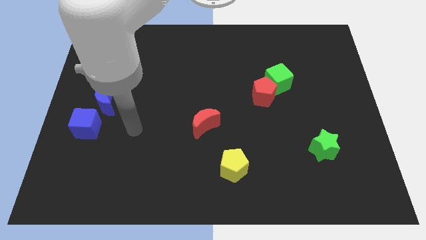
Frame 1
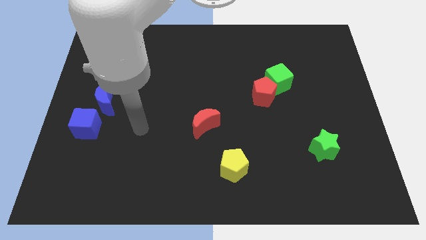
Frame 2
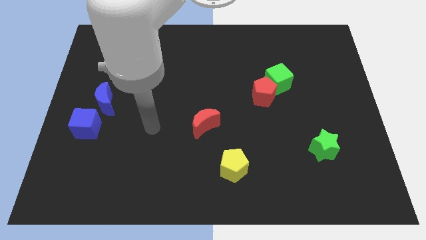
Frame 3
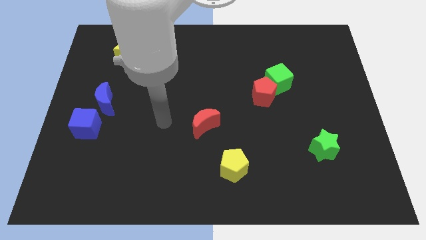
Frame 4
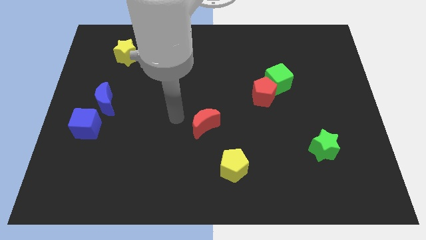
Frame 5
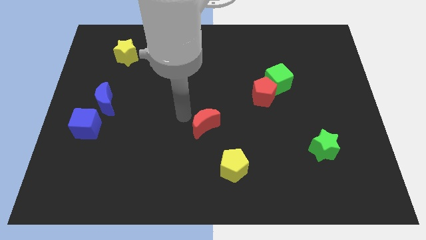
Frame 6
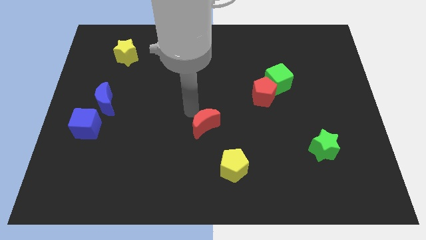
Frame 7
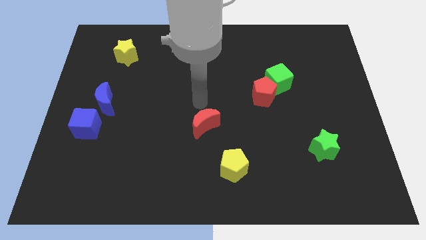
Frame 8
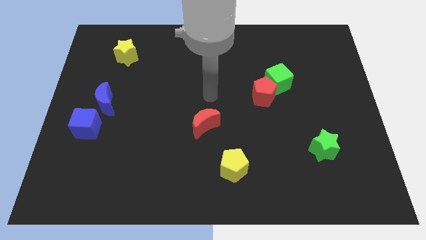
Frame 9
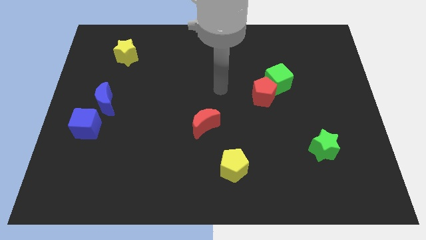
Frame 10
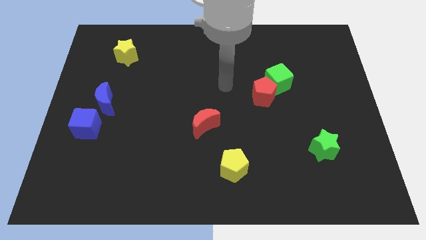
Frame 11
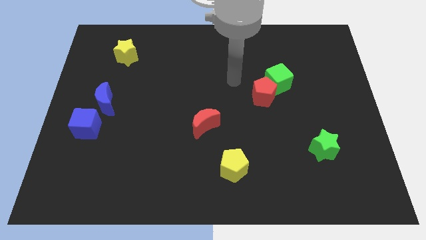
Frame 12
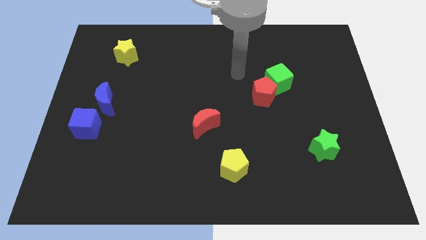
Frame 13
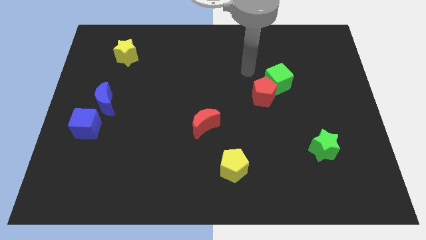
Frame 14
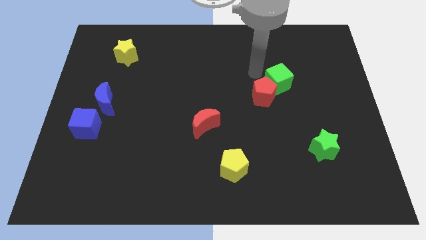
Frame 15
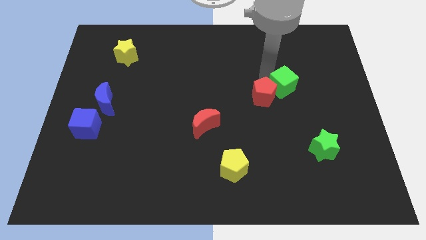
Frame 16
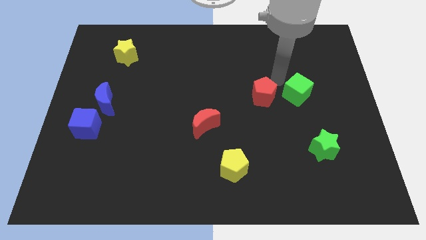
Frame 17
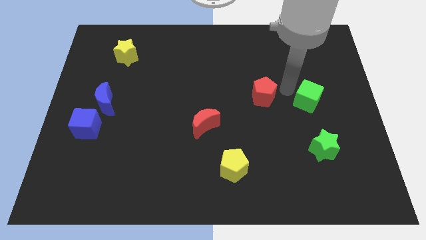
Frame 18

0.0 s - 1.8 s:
separate the red pentagon from the green cube

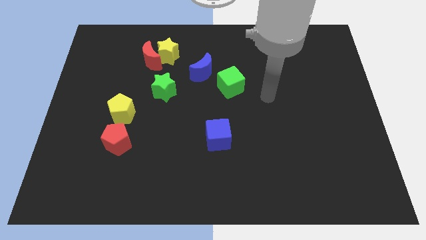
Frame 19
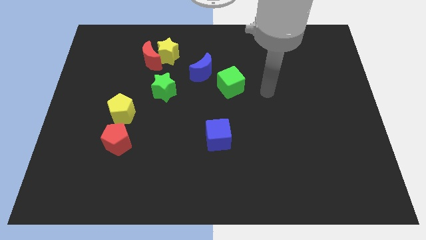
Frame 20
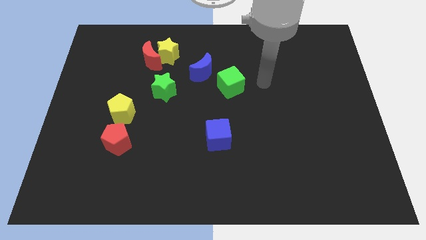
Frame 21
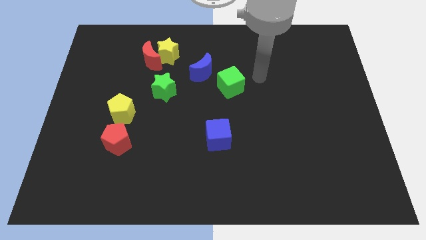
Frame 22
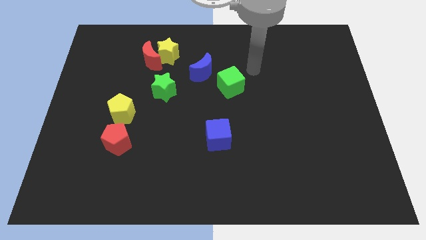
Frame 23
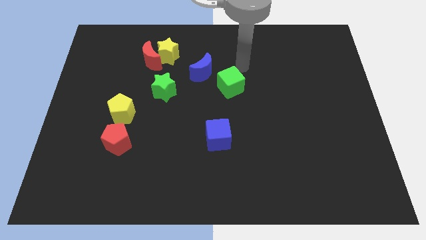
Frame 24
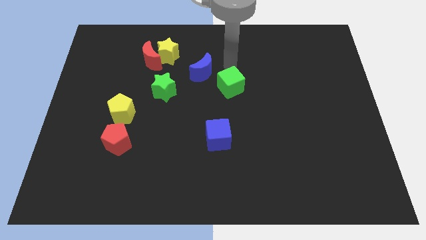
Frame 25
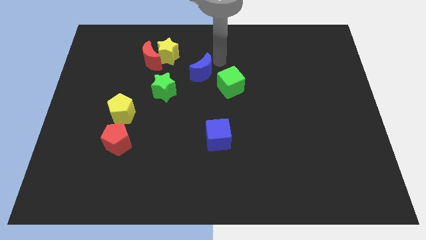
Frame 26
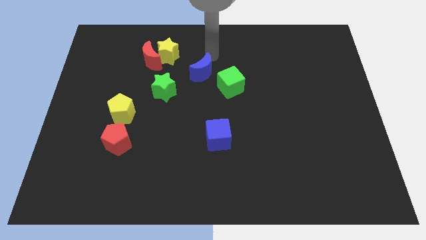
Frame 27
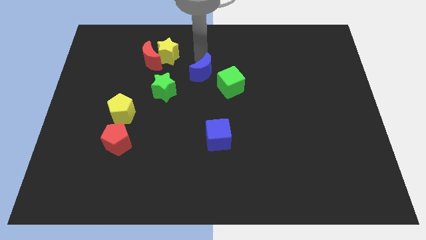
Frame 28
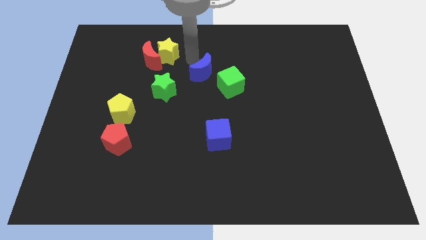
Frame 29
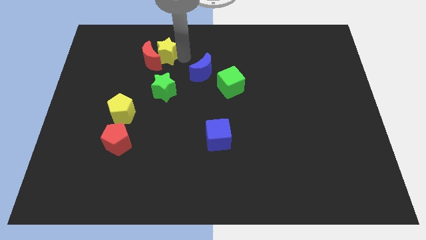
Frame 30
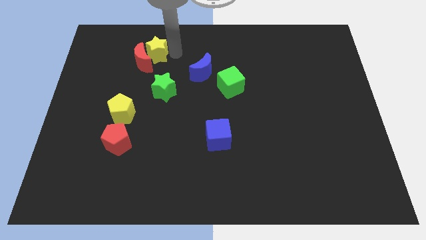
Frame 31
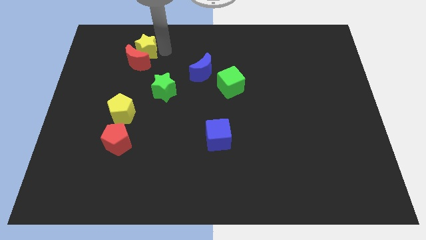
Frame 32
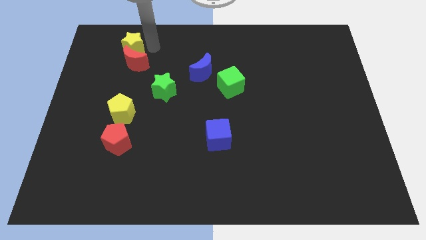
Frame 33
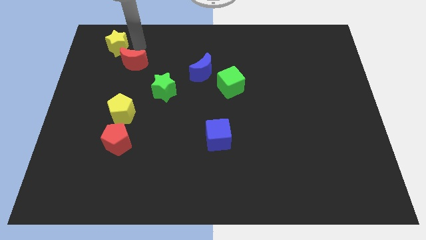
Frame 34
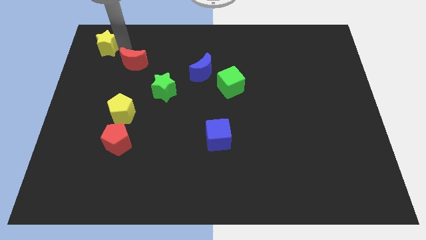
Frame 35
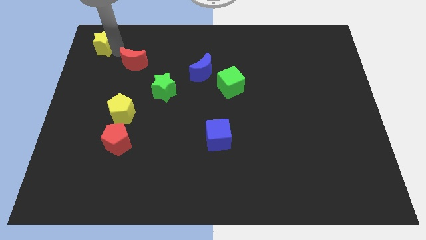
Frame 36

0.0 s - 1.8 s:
separate the red moon from the yellow star

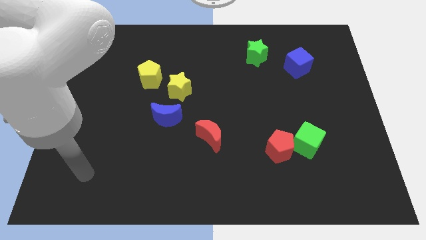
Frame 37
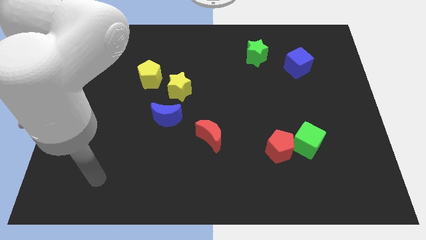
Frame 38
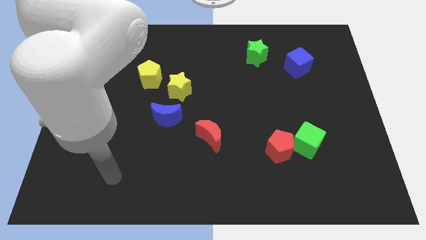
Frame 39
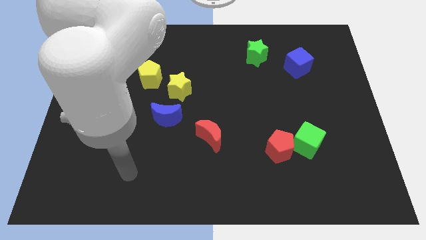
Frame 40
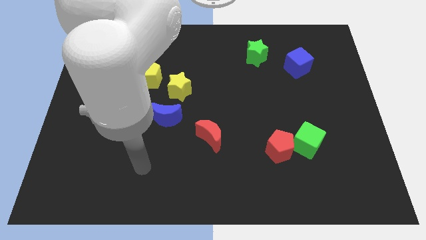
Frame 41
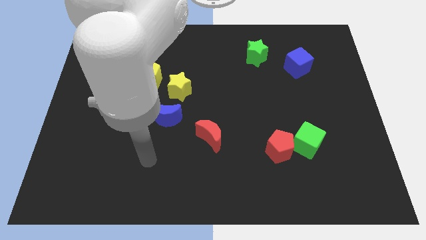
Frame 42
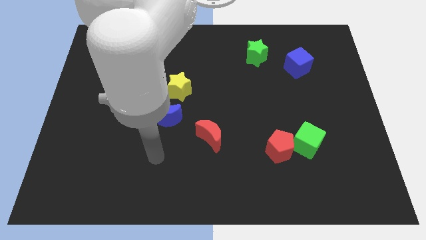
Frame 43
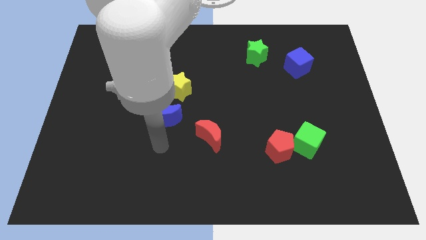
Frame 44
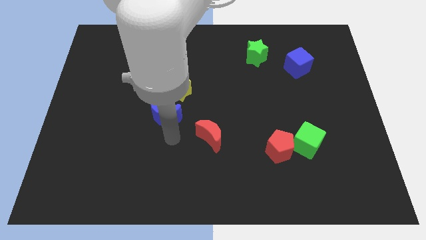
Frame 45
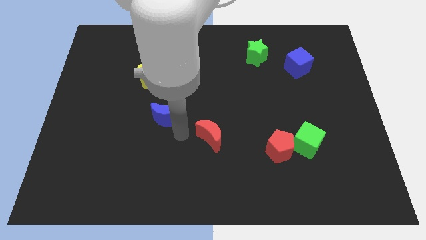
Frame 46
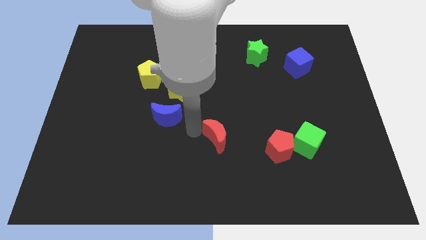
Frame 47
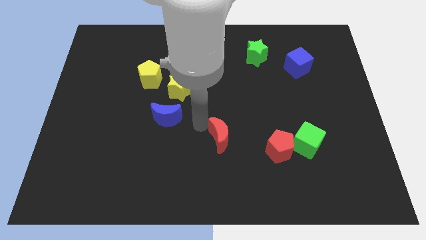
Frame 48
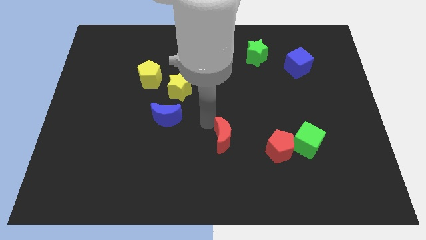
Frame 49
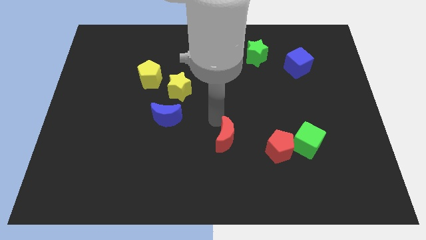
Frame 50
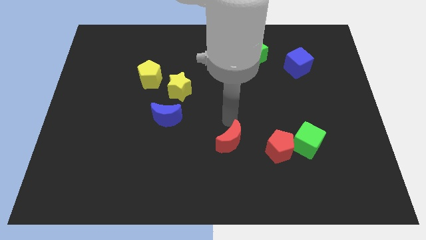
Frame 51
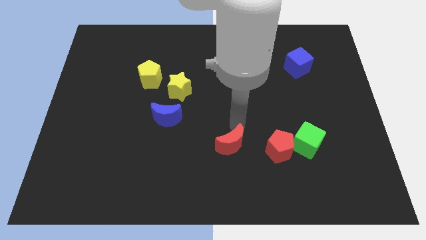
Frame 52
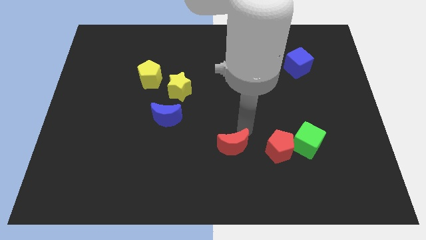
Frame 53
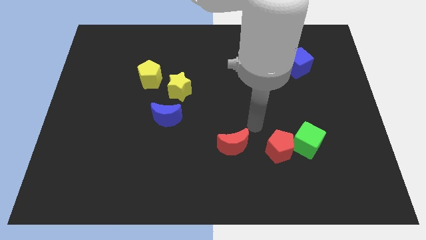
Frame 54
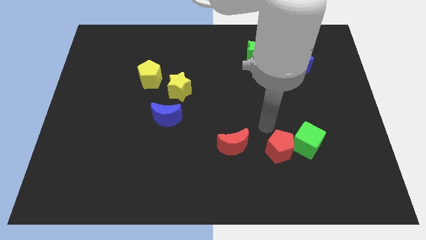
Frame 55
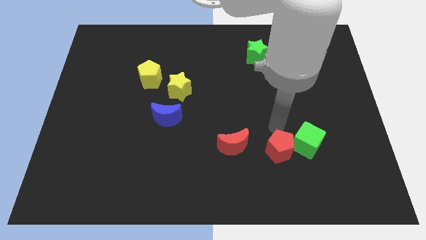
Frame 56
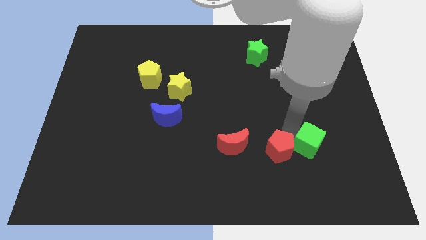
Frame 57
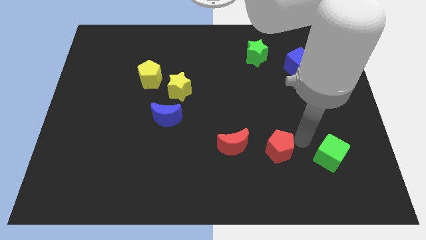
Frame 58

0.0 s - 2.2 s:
pull the red pentagon apart from the green cube

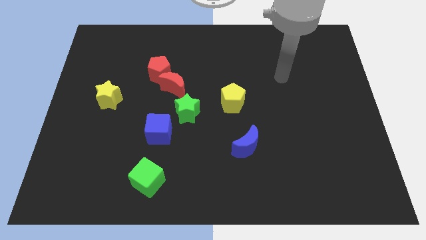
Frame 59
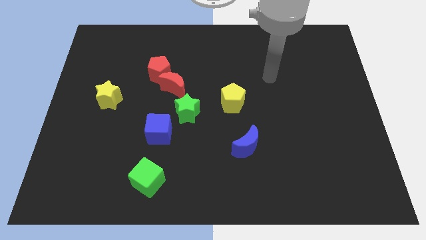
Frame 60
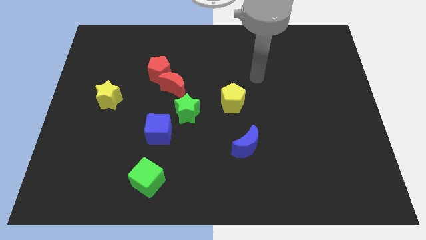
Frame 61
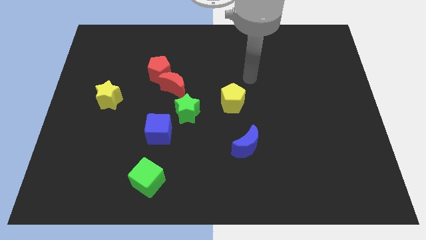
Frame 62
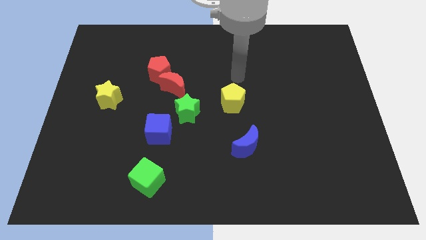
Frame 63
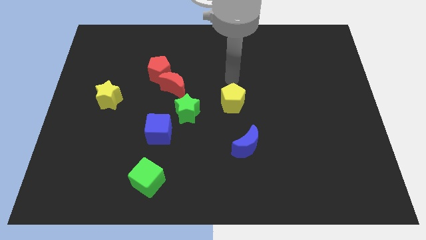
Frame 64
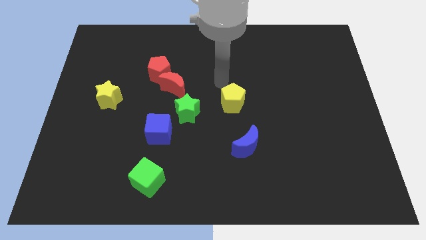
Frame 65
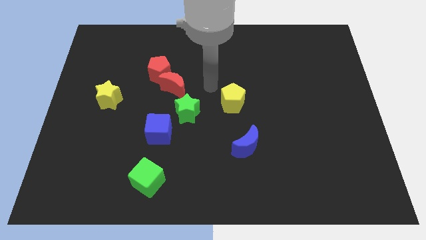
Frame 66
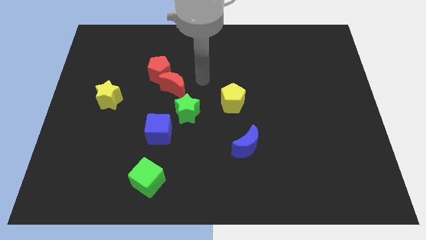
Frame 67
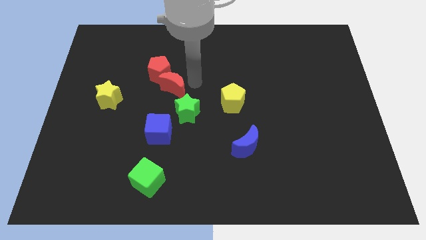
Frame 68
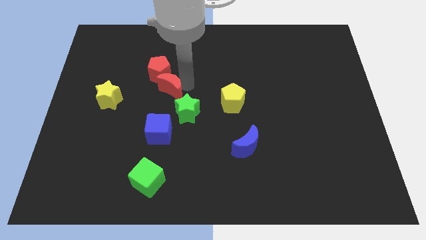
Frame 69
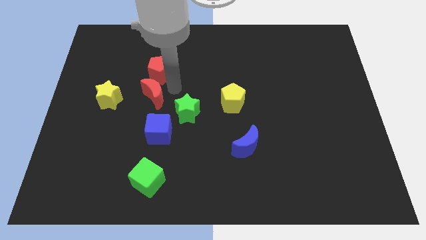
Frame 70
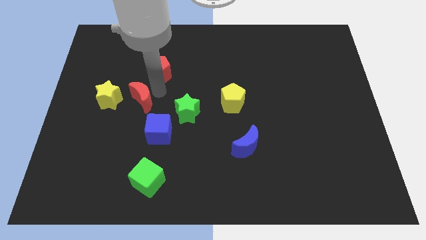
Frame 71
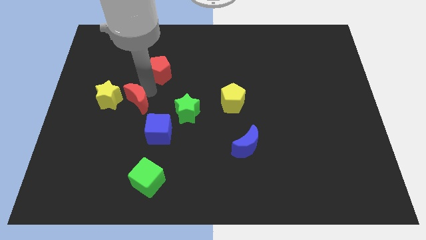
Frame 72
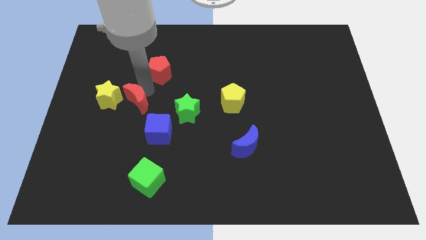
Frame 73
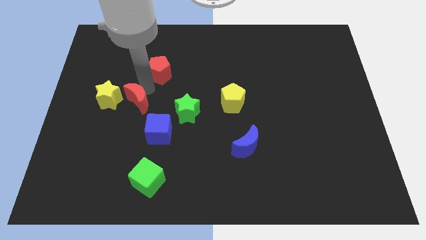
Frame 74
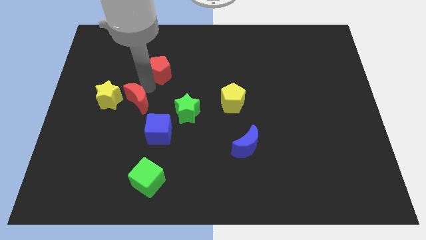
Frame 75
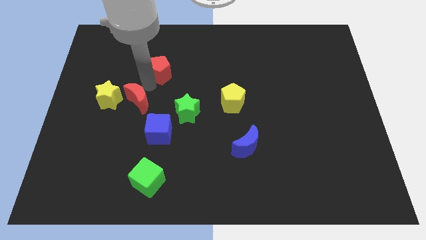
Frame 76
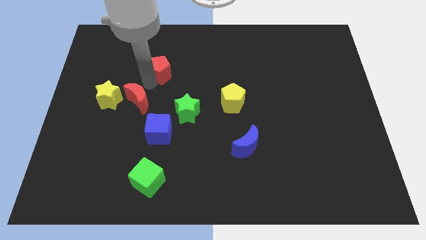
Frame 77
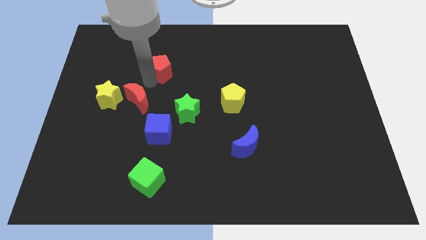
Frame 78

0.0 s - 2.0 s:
pull the red pentagon apart from the red moon

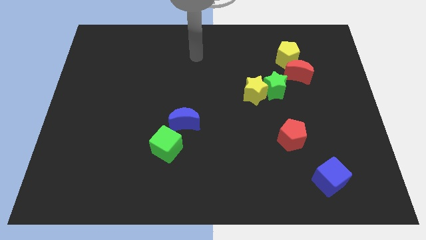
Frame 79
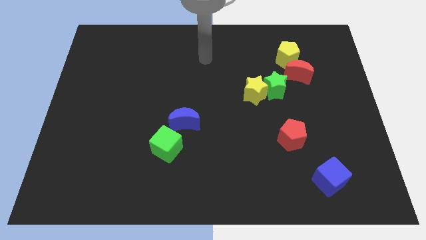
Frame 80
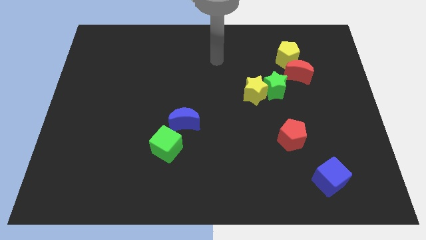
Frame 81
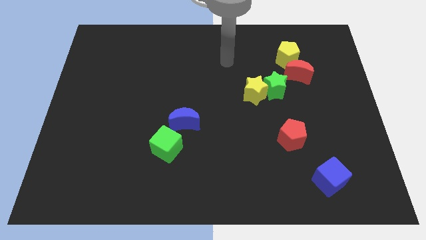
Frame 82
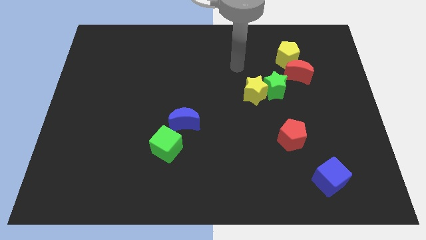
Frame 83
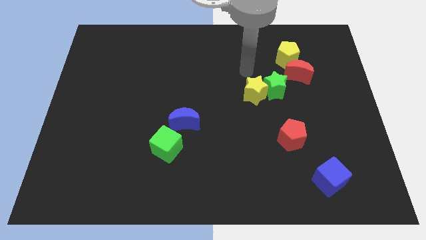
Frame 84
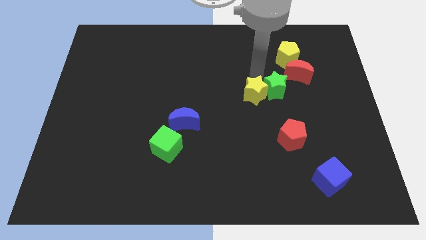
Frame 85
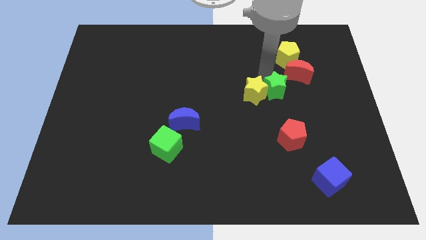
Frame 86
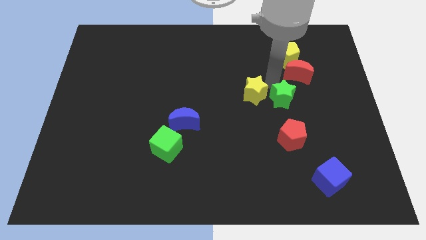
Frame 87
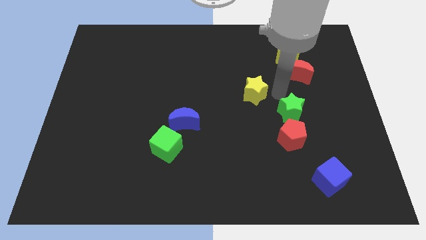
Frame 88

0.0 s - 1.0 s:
move the yellow star away from the green star

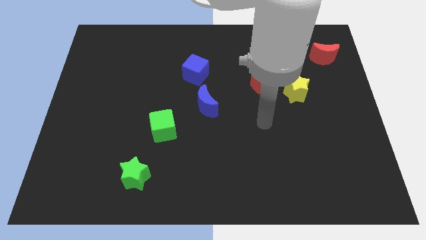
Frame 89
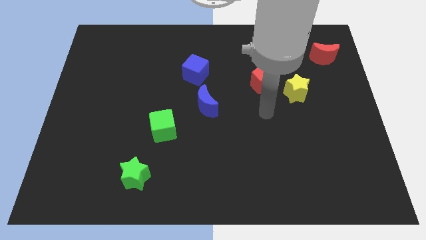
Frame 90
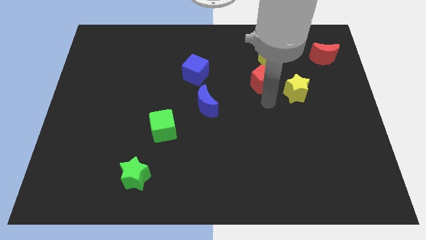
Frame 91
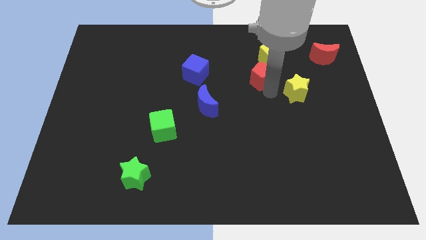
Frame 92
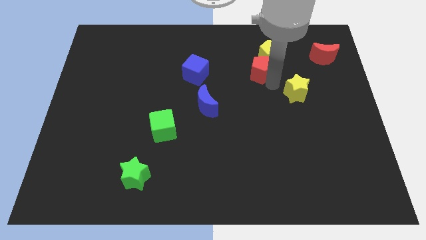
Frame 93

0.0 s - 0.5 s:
move the yellow star away from the red pentagon
